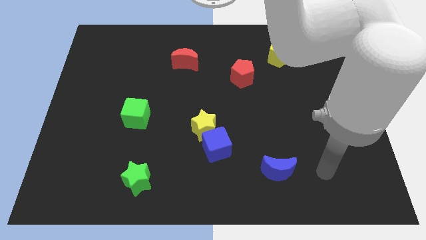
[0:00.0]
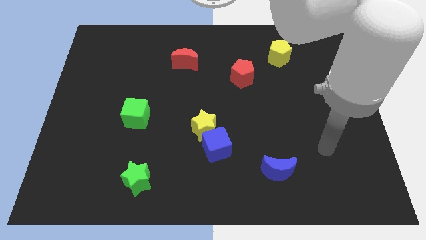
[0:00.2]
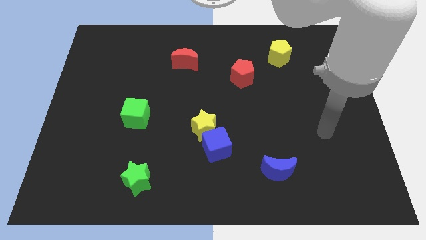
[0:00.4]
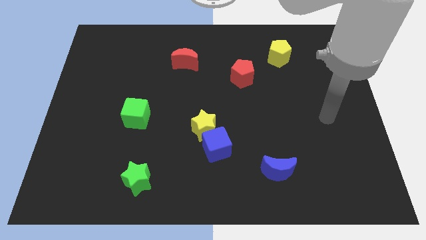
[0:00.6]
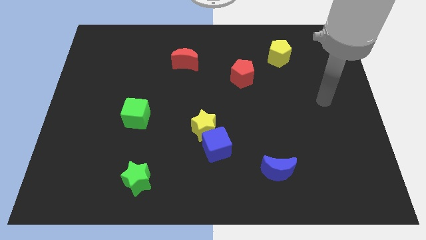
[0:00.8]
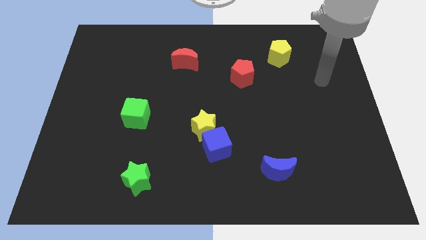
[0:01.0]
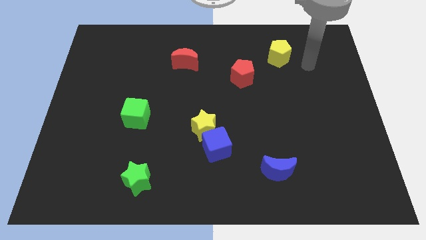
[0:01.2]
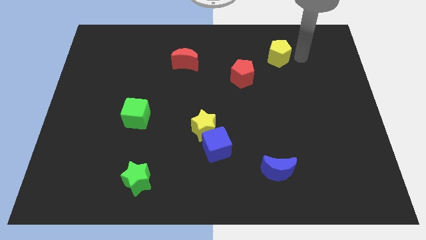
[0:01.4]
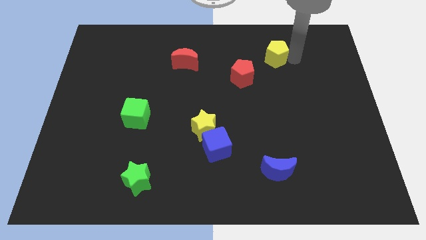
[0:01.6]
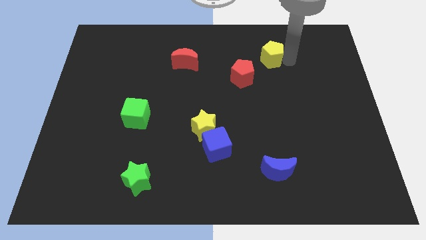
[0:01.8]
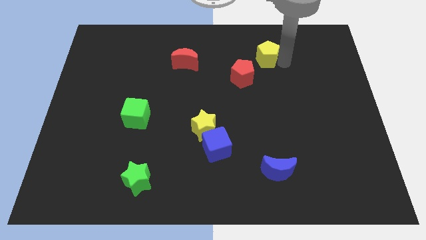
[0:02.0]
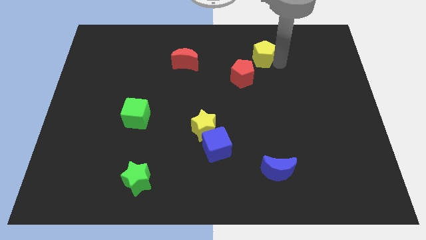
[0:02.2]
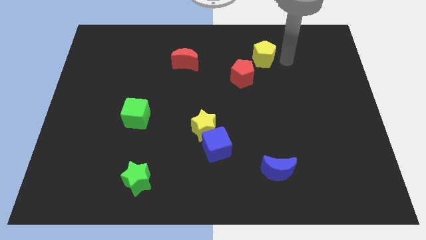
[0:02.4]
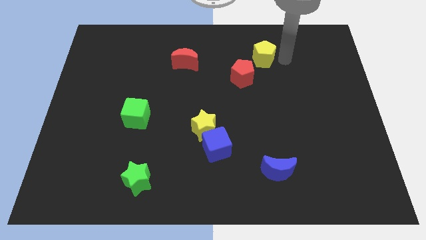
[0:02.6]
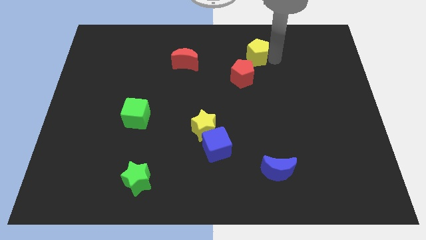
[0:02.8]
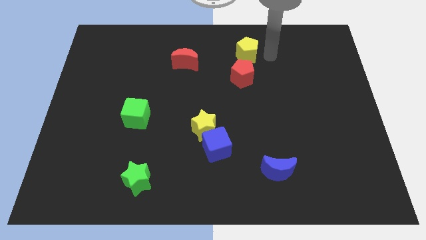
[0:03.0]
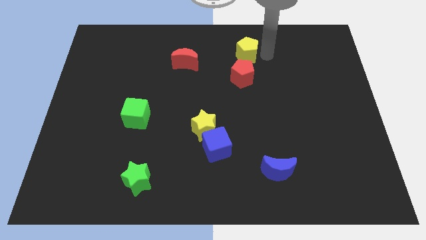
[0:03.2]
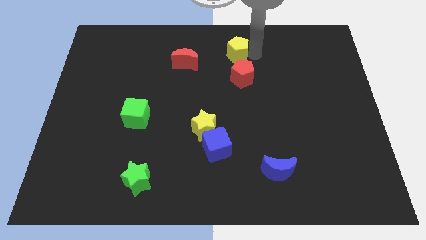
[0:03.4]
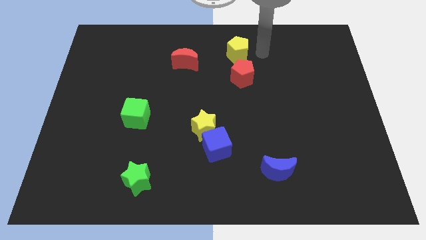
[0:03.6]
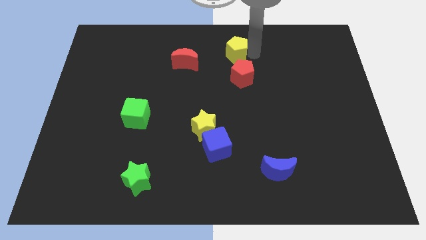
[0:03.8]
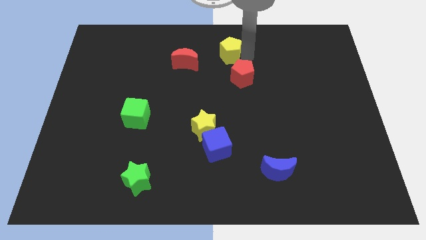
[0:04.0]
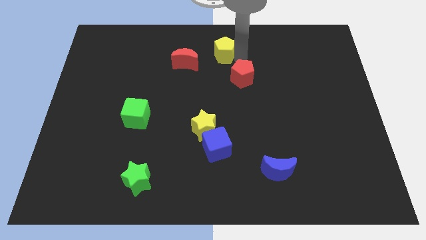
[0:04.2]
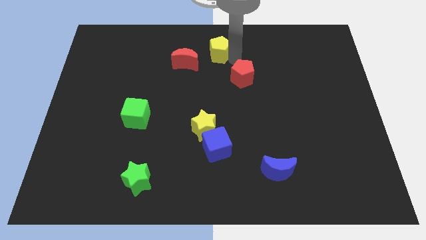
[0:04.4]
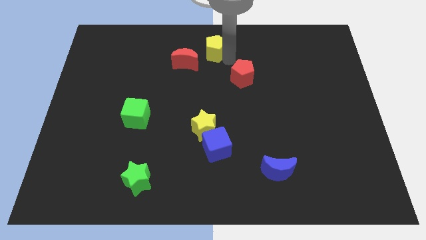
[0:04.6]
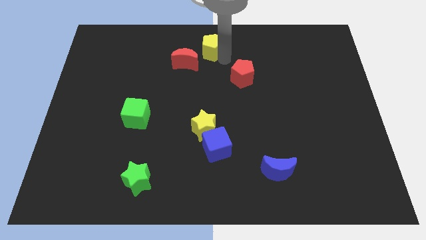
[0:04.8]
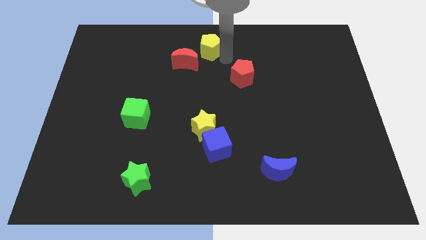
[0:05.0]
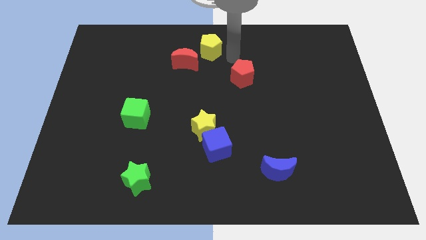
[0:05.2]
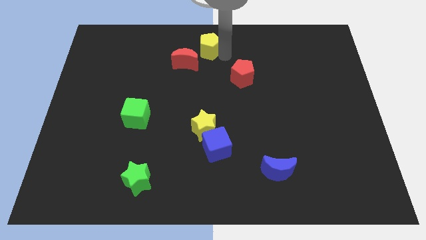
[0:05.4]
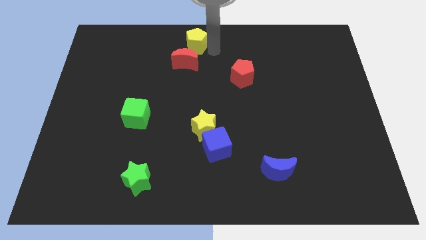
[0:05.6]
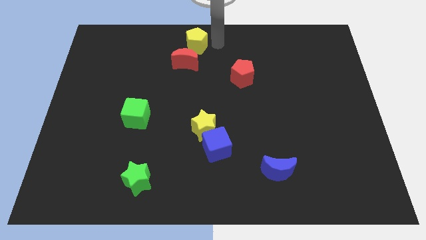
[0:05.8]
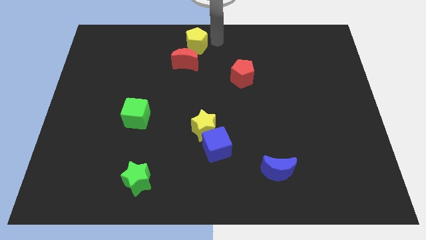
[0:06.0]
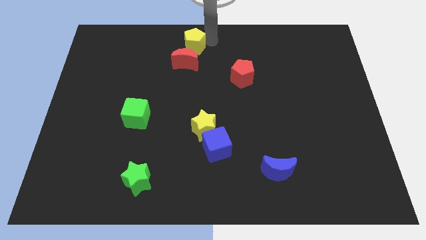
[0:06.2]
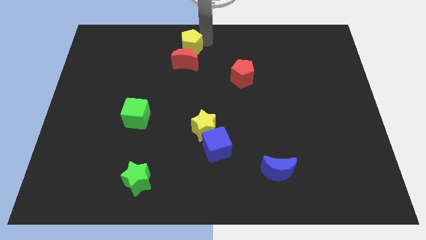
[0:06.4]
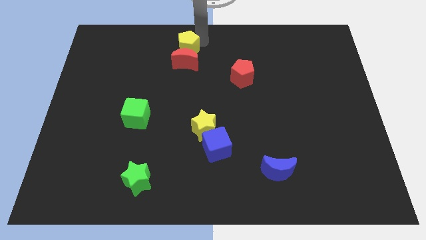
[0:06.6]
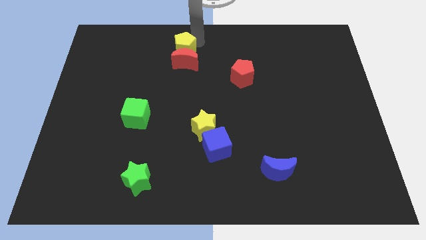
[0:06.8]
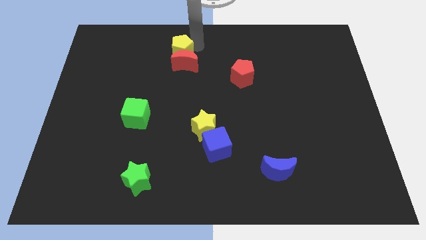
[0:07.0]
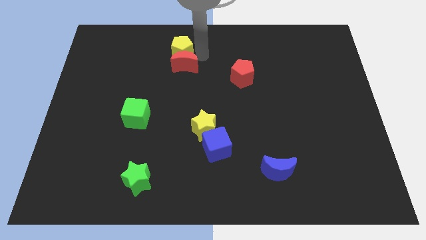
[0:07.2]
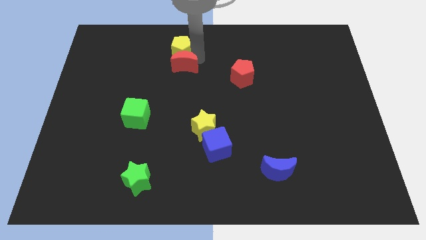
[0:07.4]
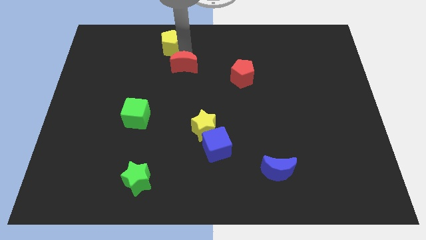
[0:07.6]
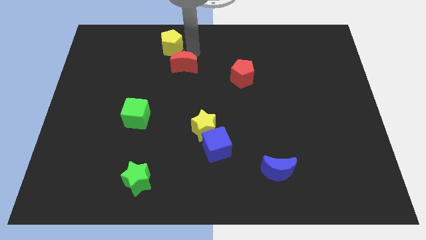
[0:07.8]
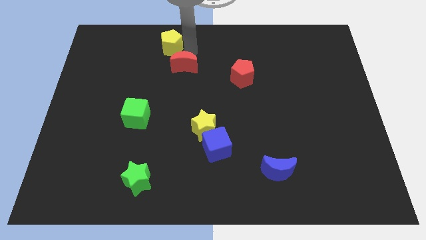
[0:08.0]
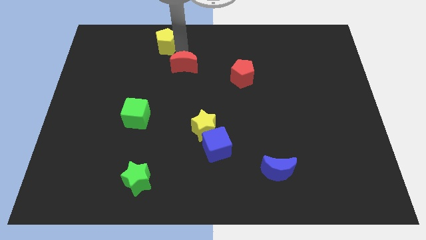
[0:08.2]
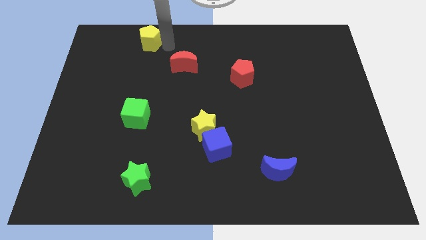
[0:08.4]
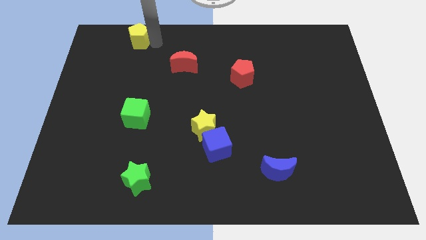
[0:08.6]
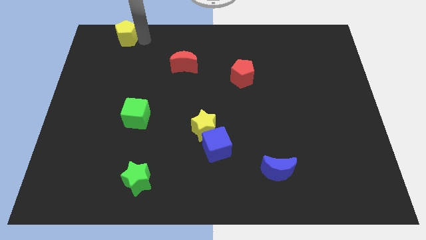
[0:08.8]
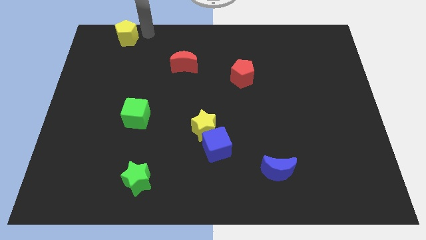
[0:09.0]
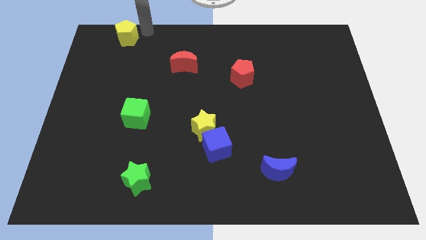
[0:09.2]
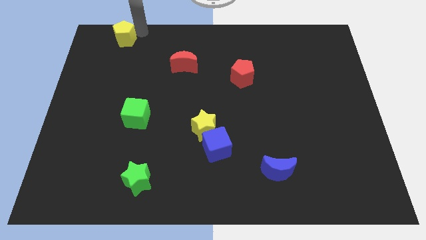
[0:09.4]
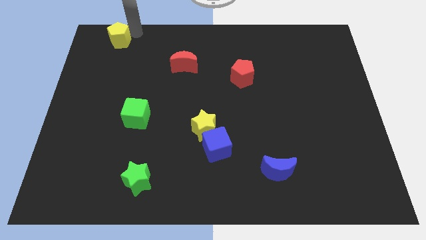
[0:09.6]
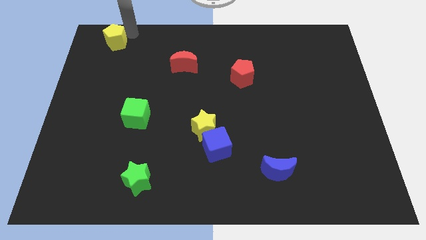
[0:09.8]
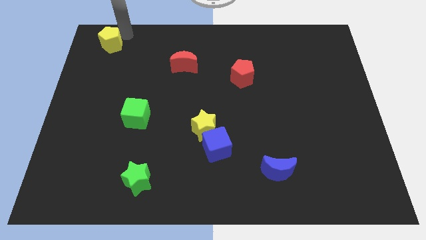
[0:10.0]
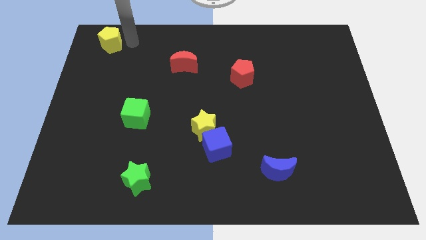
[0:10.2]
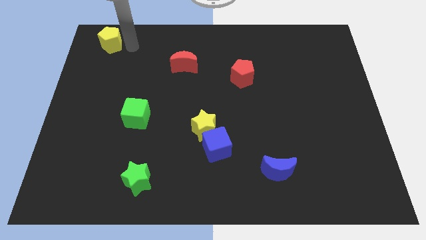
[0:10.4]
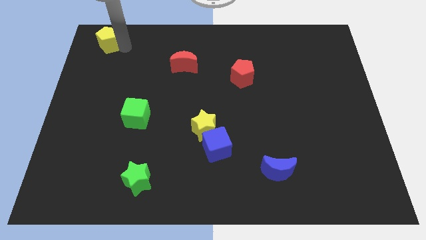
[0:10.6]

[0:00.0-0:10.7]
slide the yellow pentagon to the upper left corner
